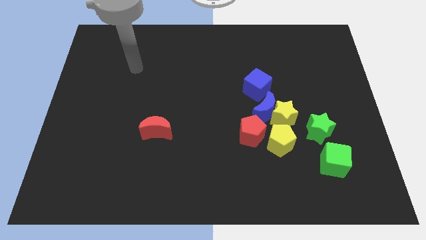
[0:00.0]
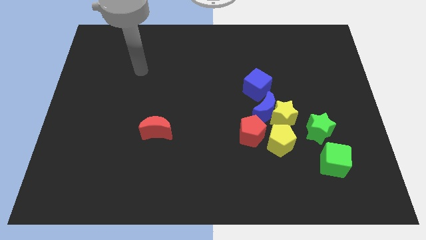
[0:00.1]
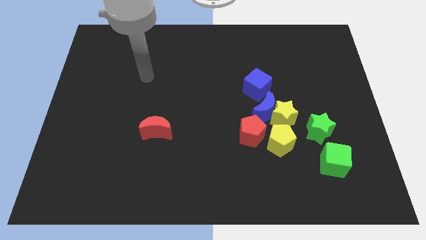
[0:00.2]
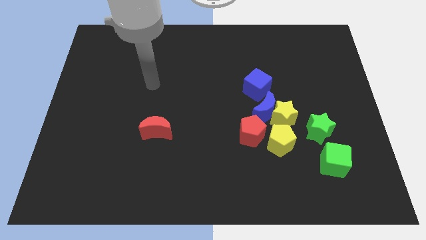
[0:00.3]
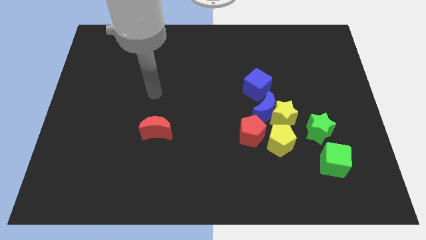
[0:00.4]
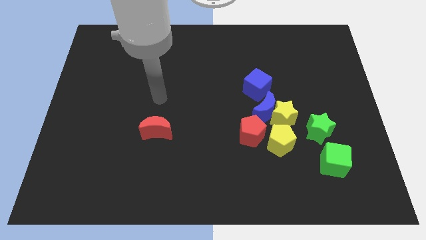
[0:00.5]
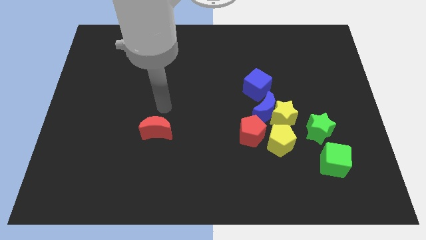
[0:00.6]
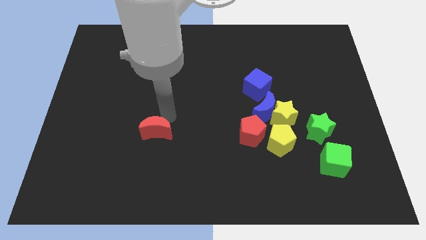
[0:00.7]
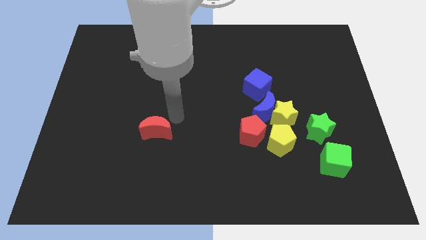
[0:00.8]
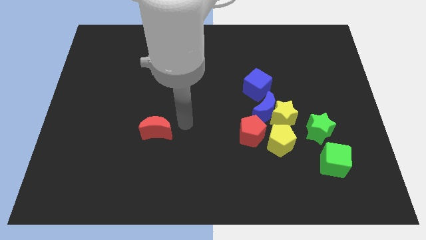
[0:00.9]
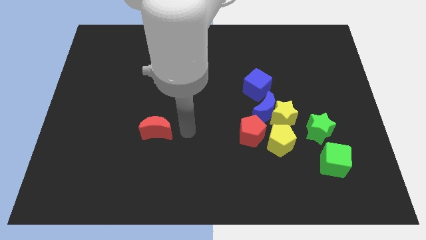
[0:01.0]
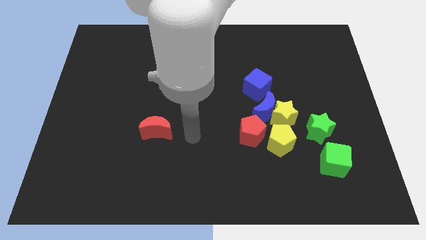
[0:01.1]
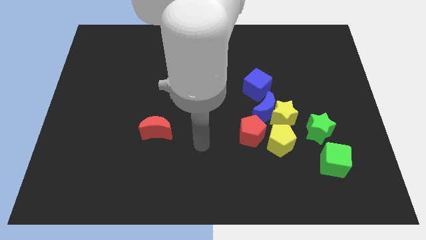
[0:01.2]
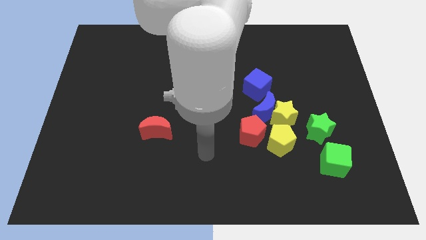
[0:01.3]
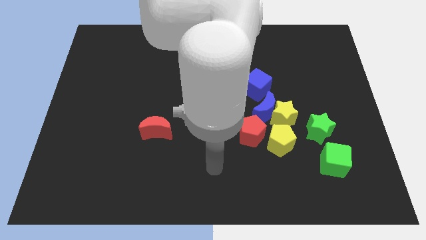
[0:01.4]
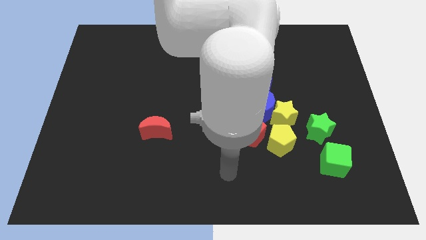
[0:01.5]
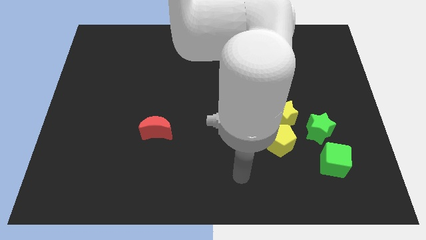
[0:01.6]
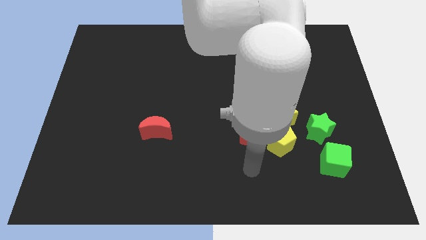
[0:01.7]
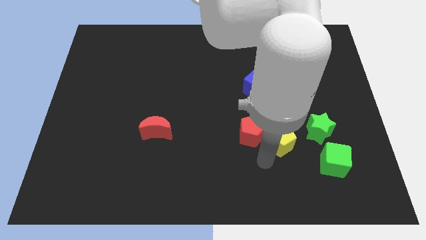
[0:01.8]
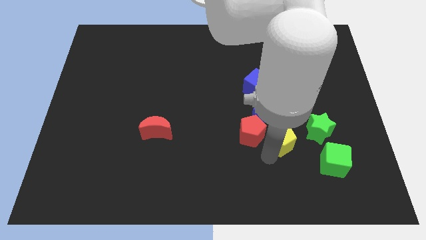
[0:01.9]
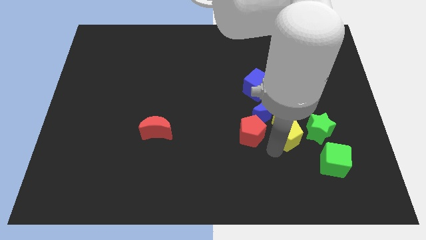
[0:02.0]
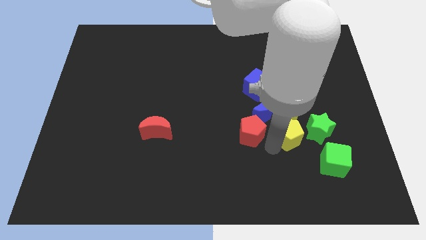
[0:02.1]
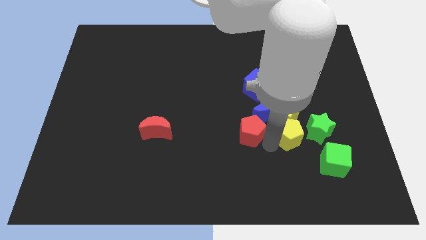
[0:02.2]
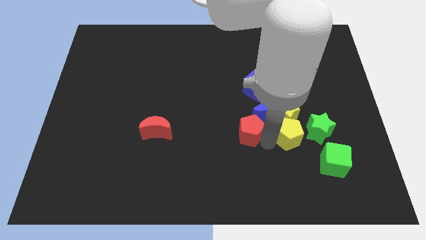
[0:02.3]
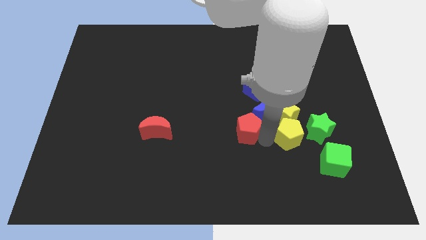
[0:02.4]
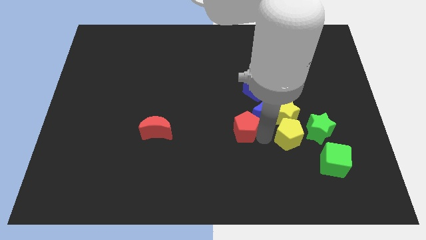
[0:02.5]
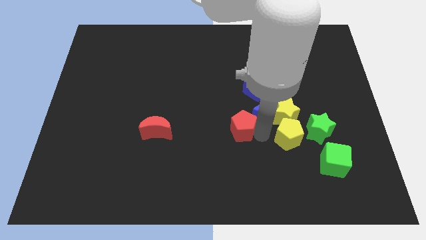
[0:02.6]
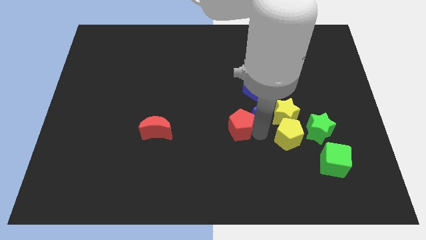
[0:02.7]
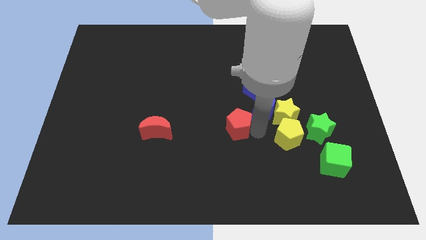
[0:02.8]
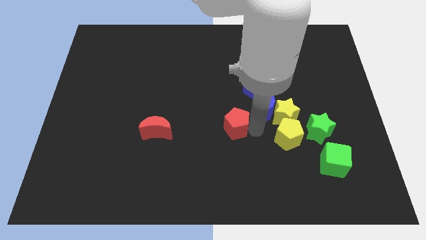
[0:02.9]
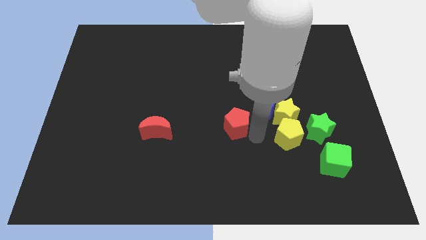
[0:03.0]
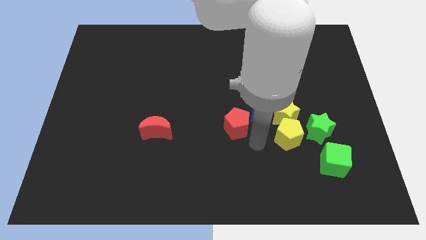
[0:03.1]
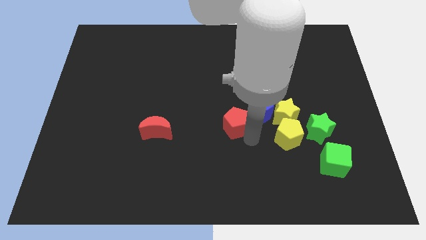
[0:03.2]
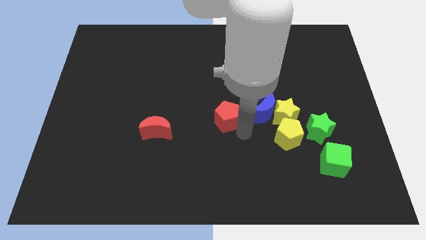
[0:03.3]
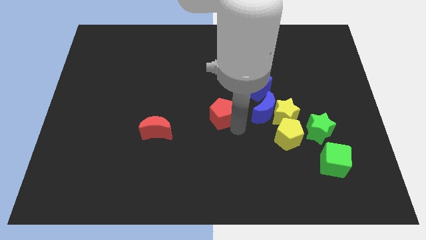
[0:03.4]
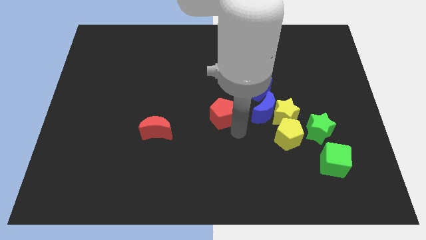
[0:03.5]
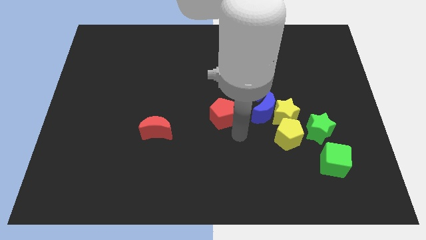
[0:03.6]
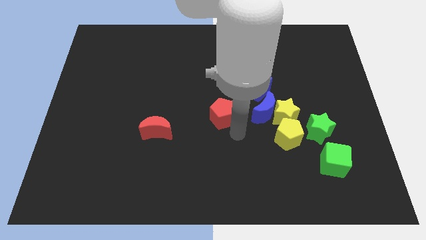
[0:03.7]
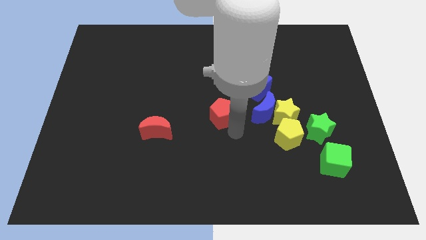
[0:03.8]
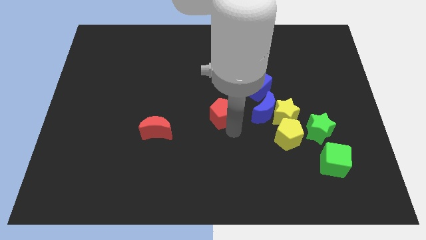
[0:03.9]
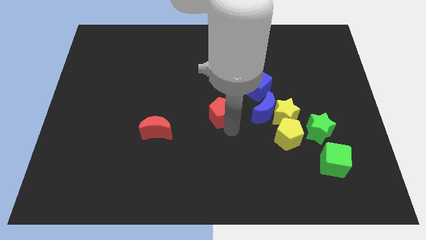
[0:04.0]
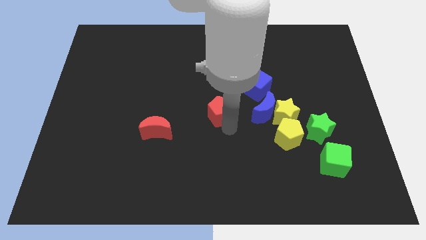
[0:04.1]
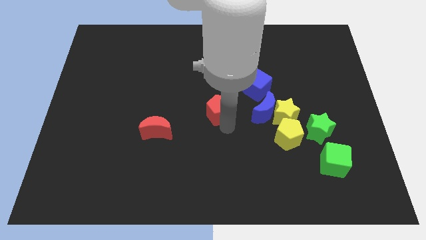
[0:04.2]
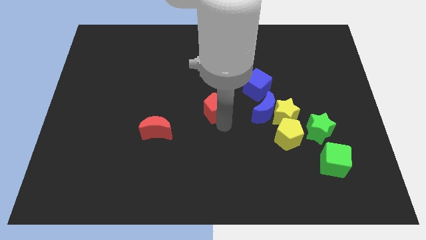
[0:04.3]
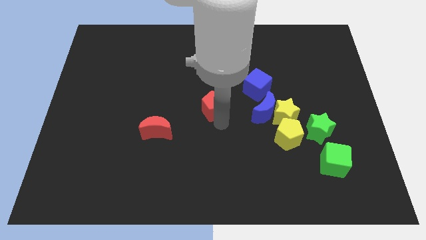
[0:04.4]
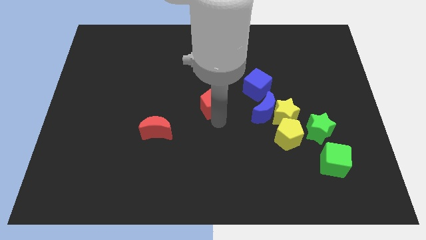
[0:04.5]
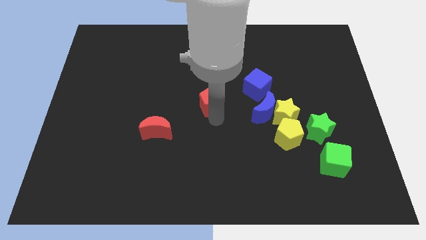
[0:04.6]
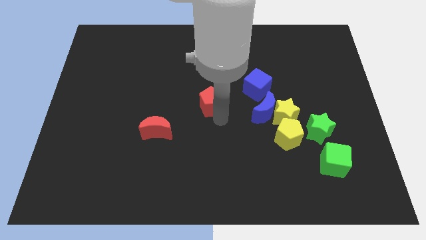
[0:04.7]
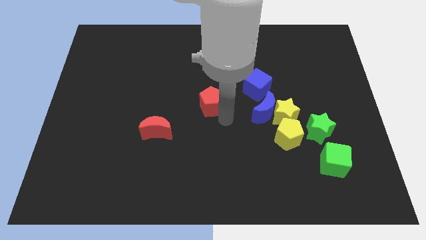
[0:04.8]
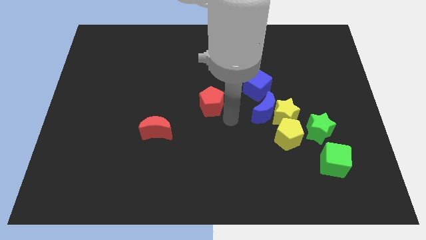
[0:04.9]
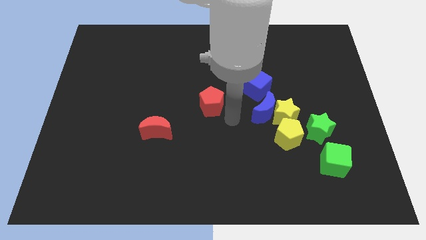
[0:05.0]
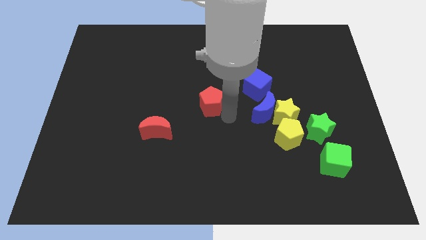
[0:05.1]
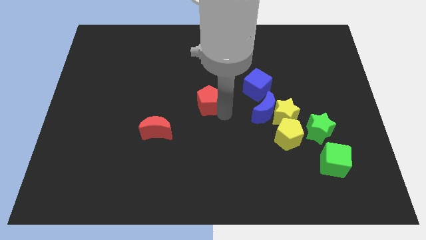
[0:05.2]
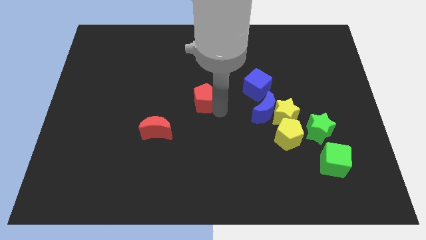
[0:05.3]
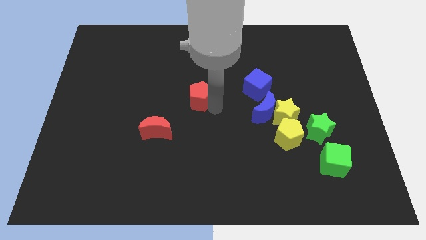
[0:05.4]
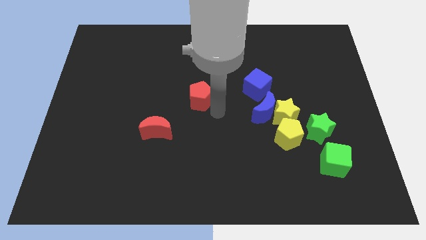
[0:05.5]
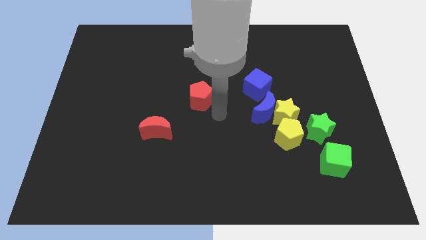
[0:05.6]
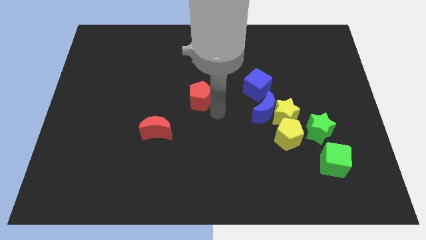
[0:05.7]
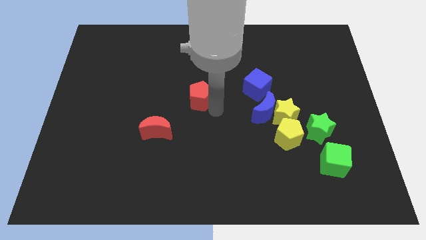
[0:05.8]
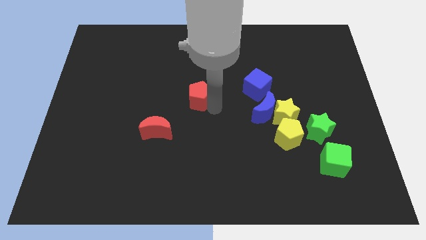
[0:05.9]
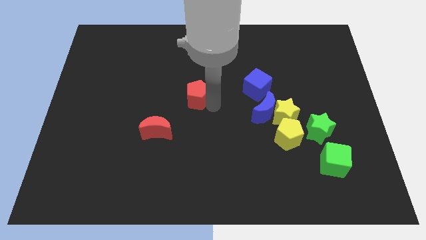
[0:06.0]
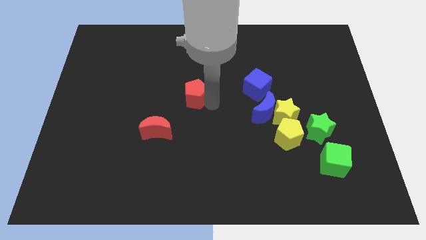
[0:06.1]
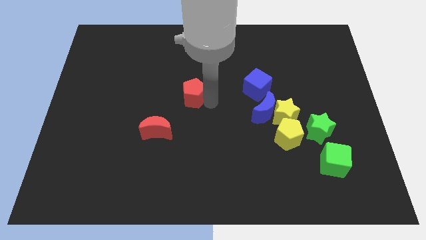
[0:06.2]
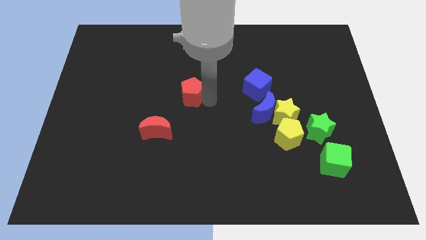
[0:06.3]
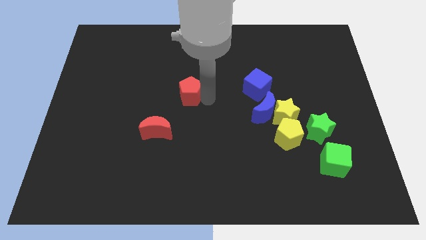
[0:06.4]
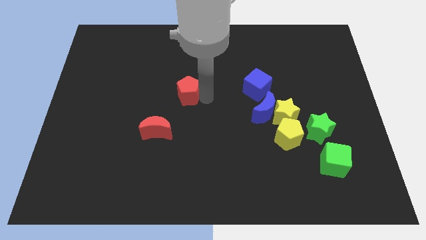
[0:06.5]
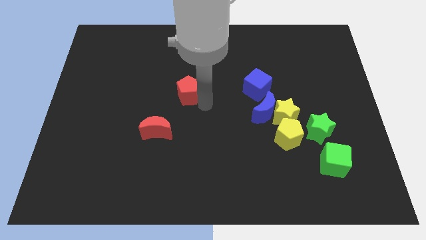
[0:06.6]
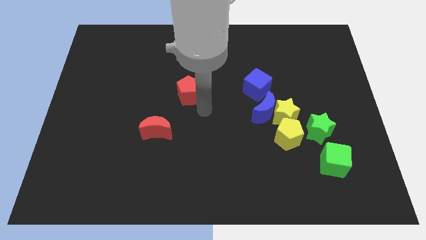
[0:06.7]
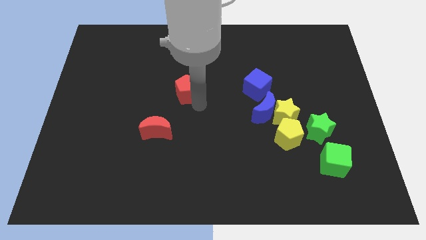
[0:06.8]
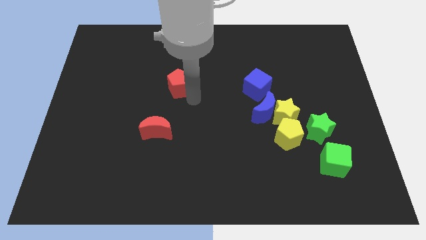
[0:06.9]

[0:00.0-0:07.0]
move the red pentagon diagonally up and left

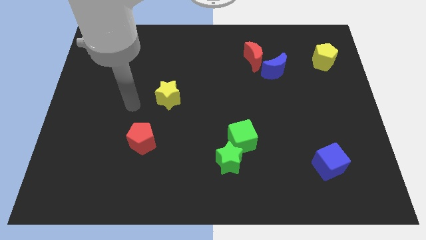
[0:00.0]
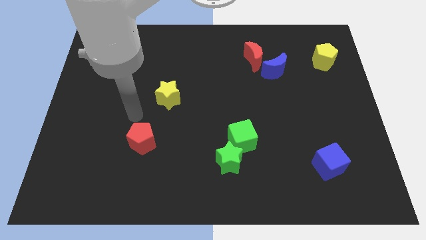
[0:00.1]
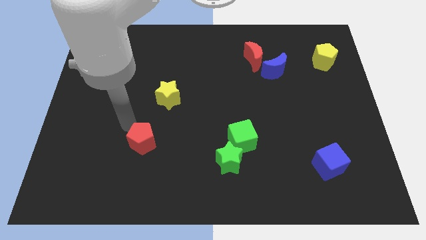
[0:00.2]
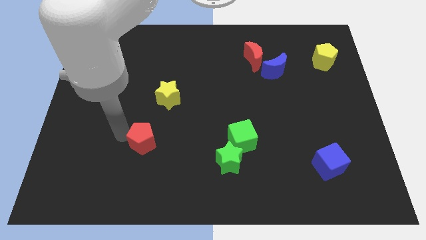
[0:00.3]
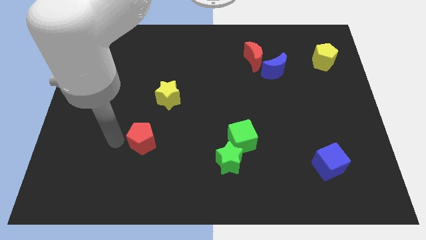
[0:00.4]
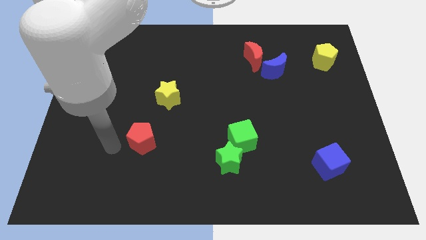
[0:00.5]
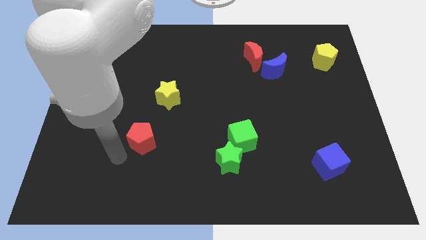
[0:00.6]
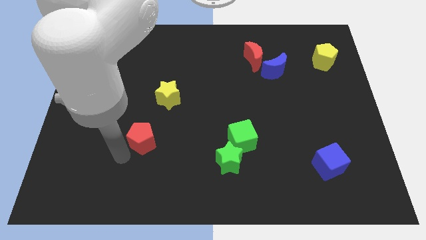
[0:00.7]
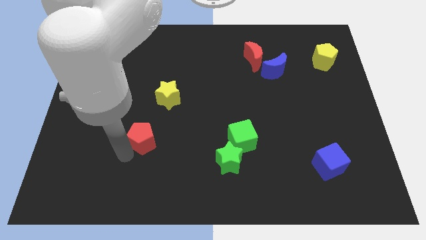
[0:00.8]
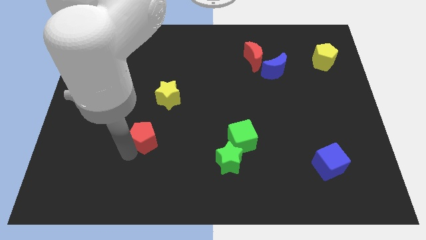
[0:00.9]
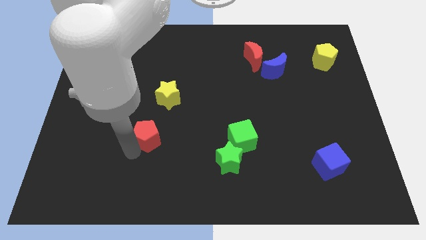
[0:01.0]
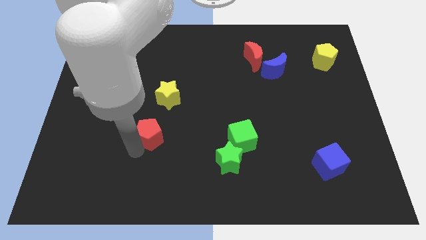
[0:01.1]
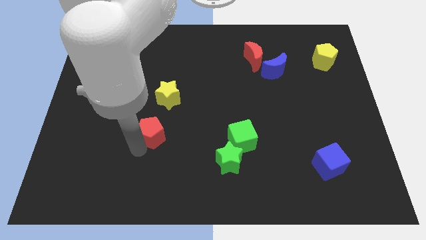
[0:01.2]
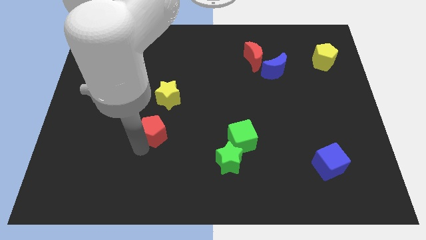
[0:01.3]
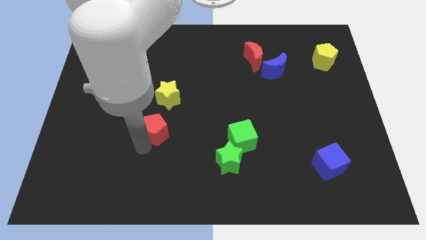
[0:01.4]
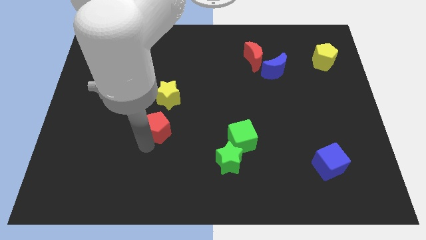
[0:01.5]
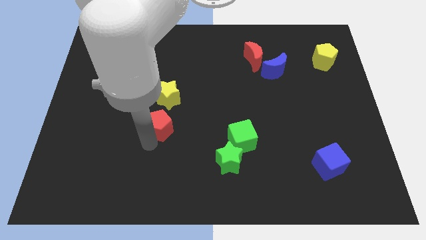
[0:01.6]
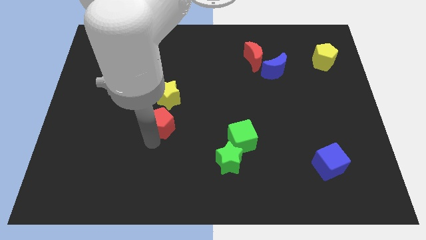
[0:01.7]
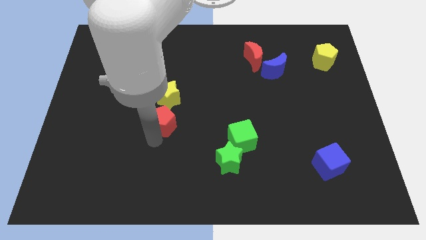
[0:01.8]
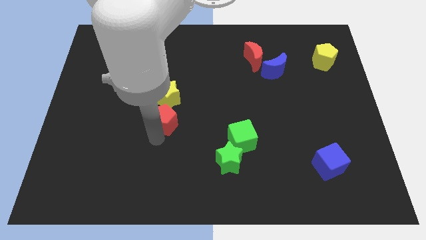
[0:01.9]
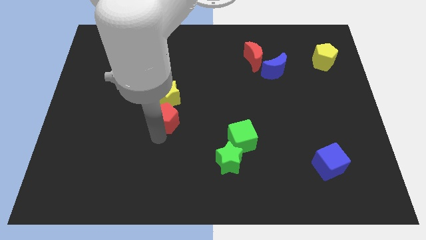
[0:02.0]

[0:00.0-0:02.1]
push the red pentagon slightly upwards and then to the right
